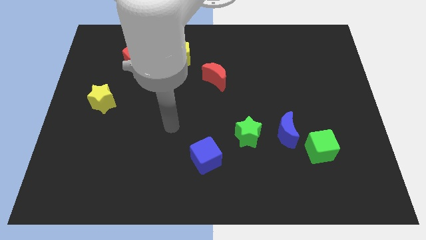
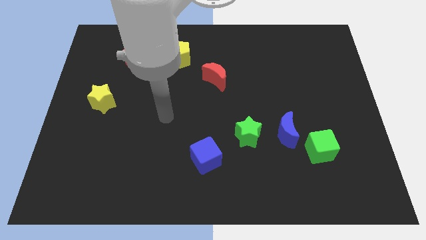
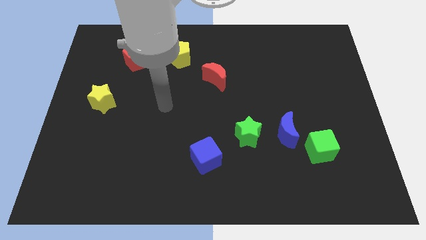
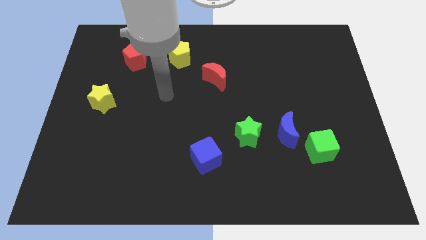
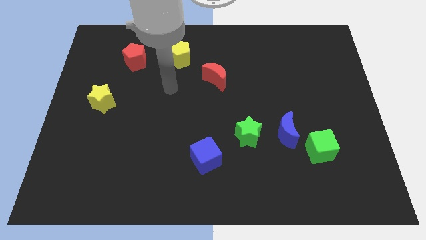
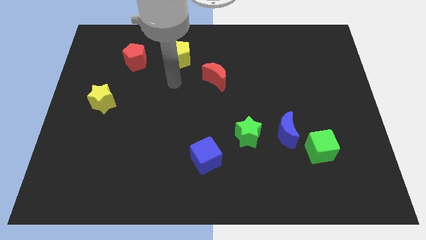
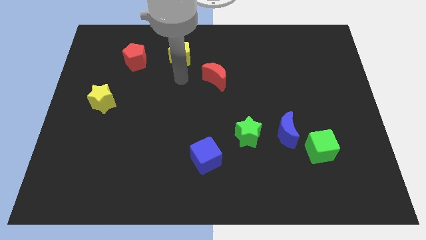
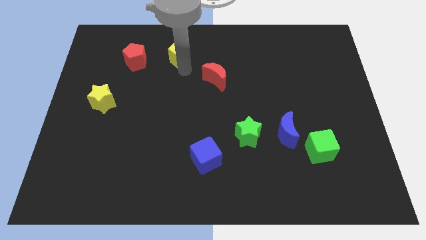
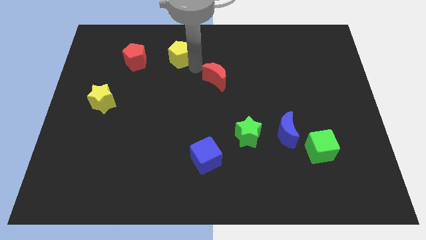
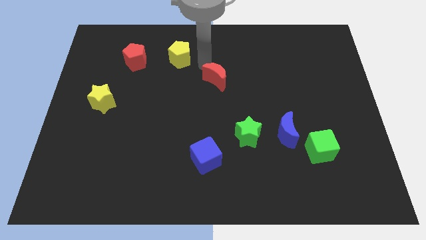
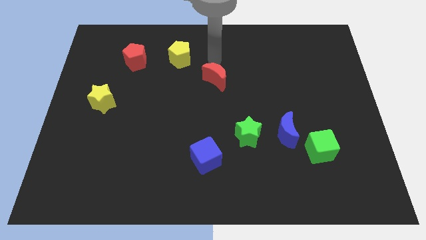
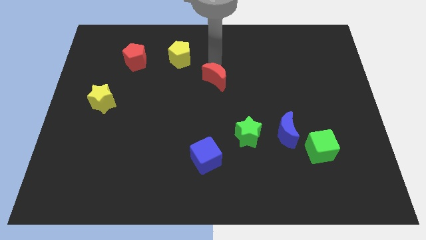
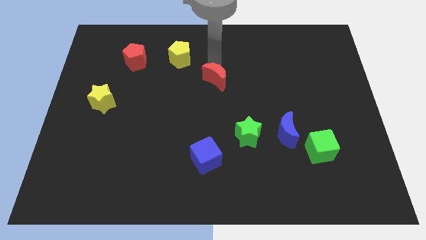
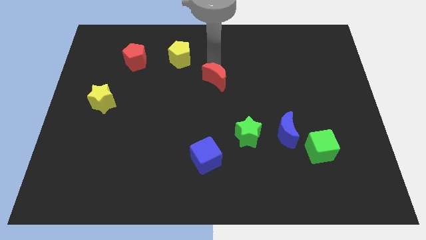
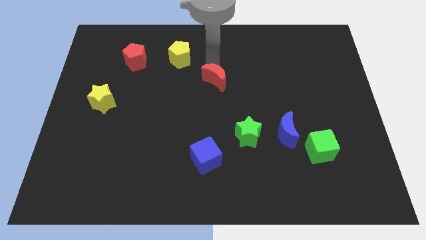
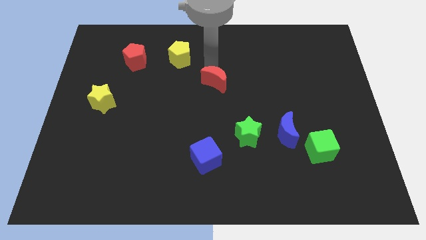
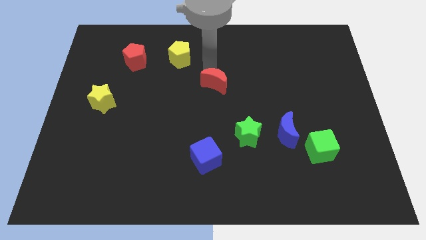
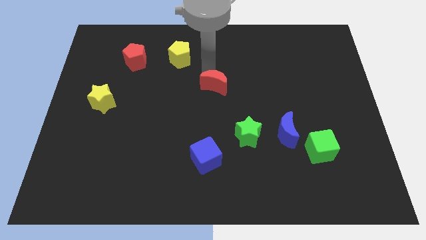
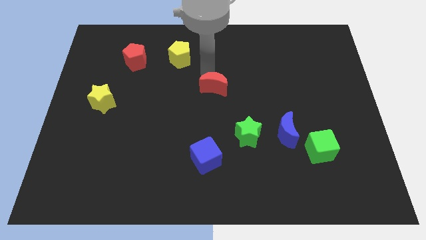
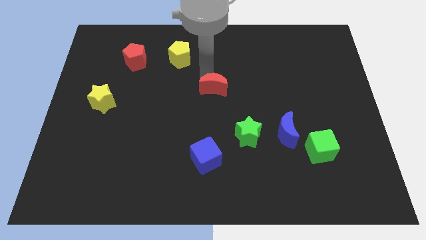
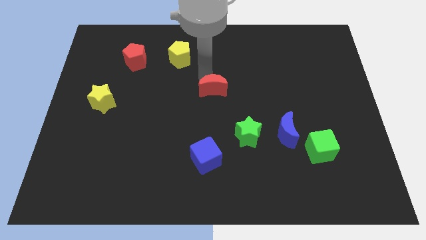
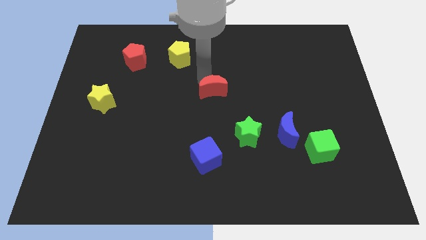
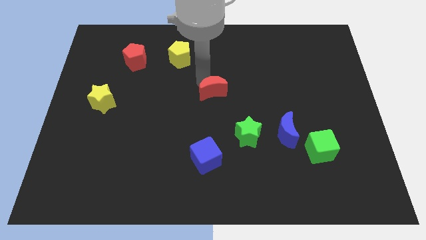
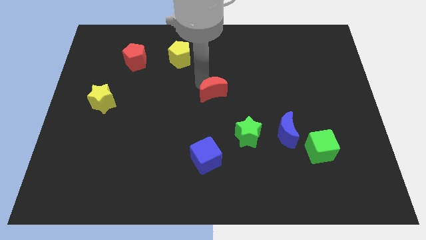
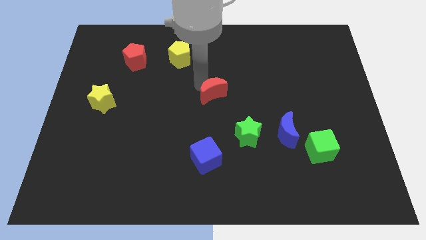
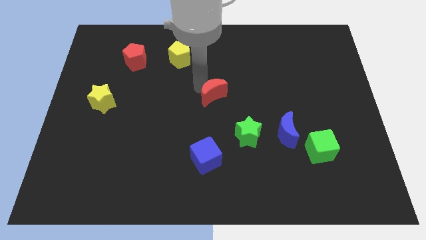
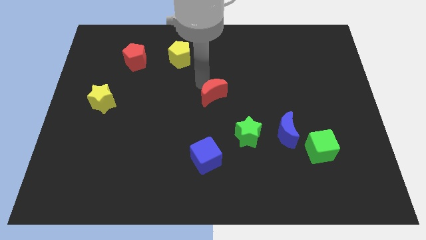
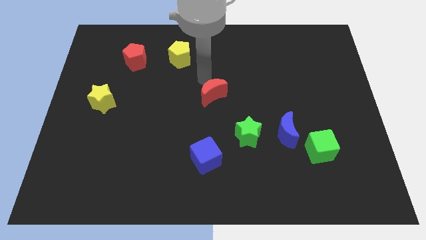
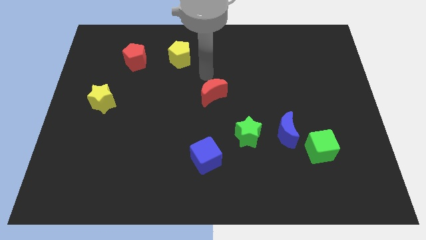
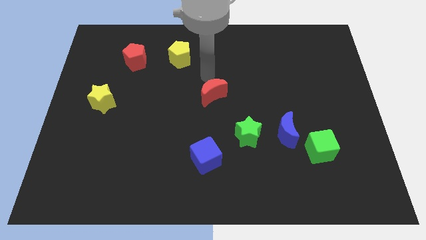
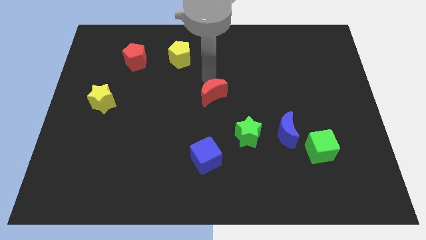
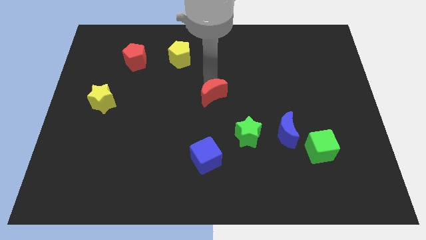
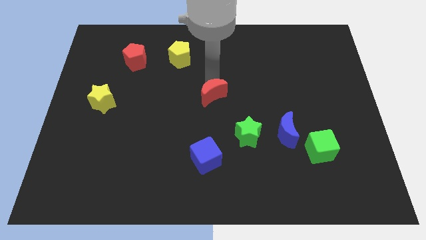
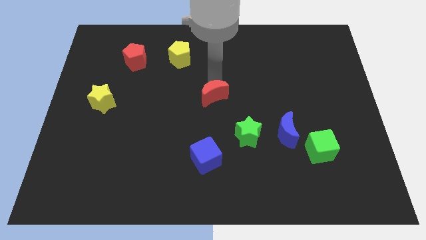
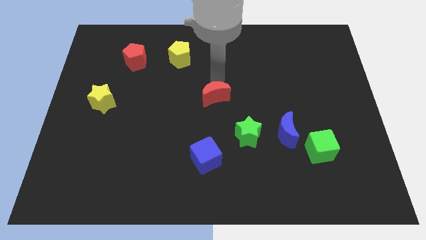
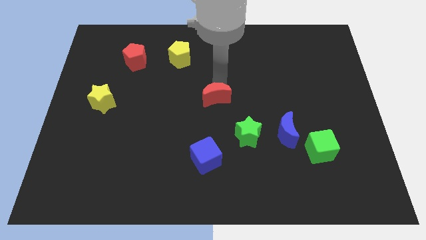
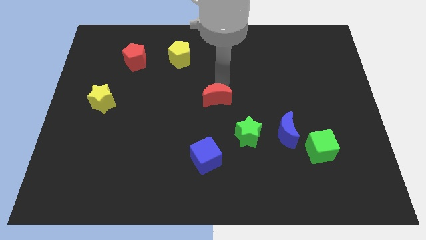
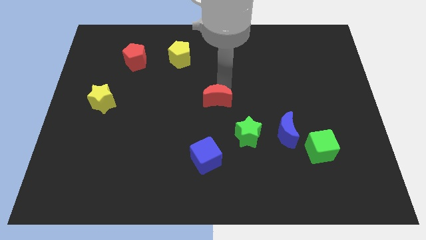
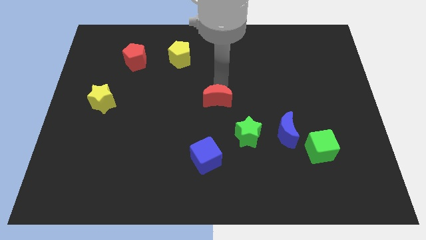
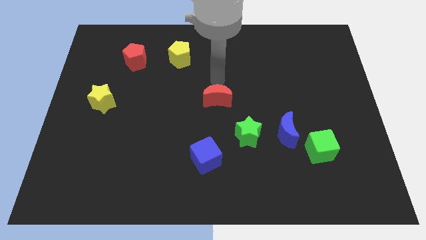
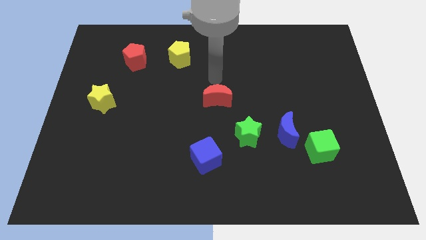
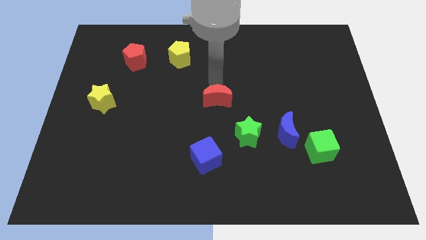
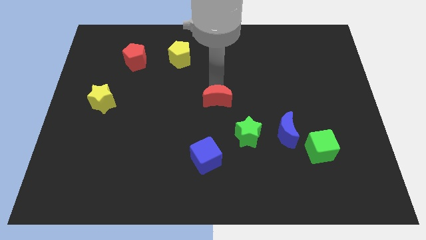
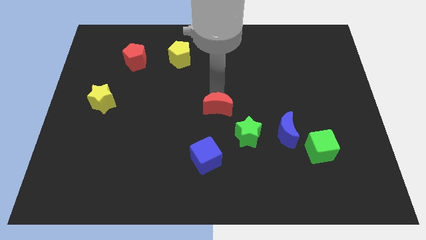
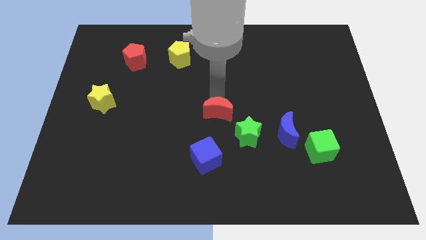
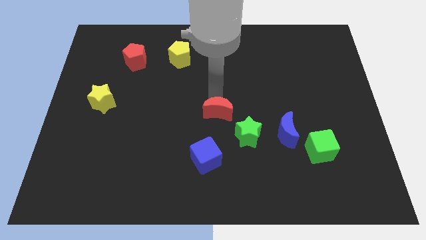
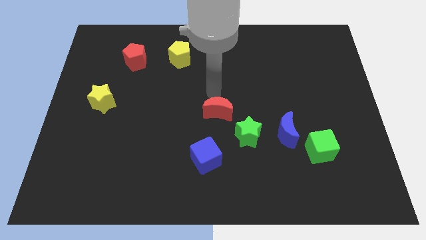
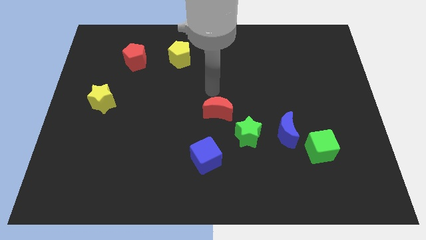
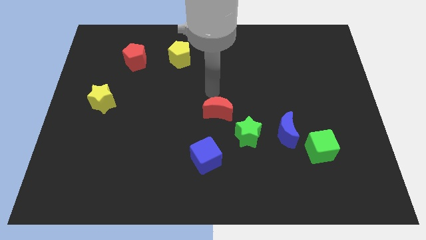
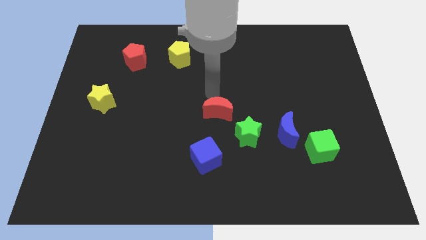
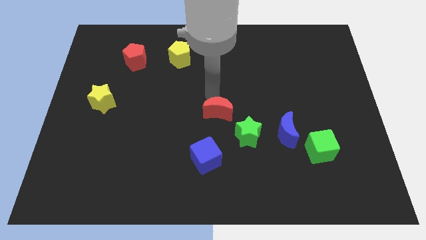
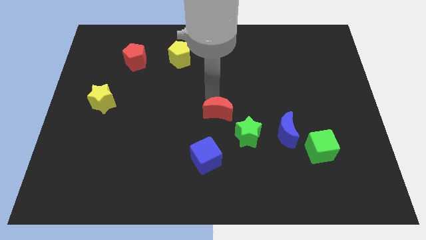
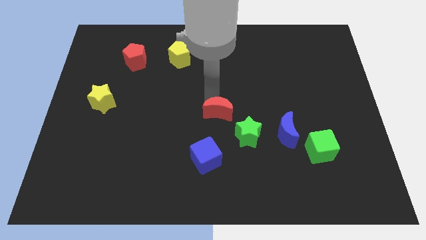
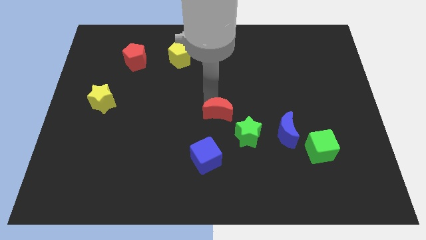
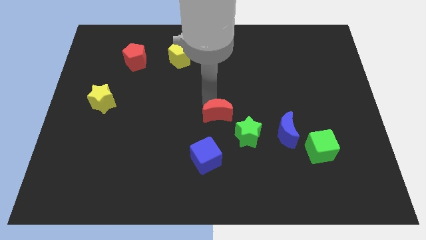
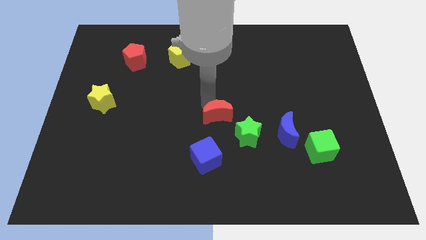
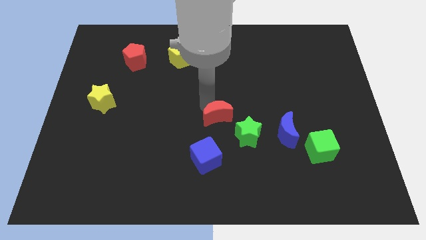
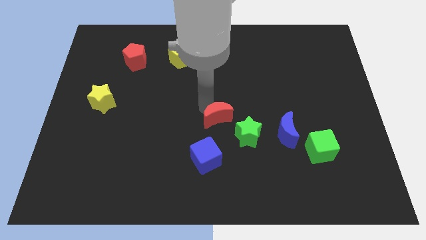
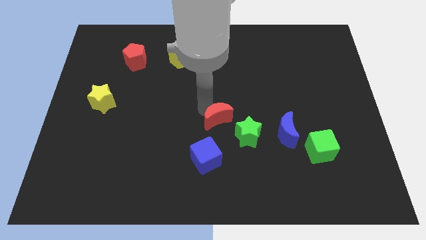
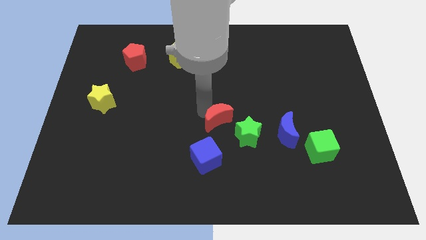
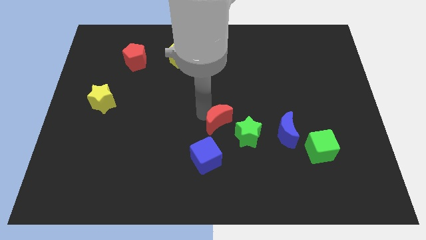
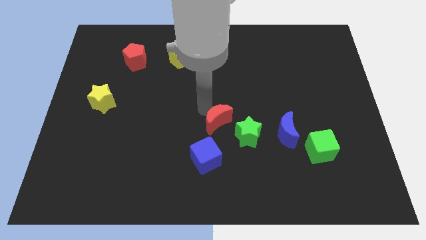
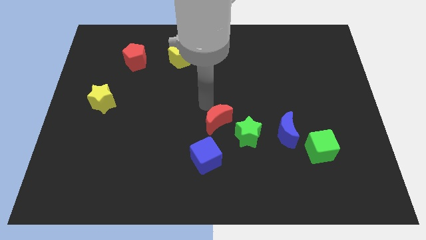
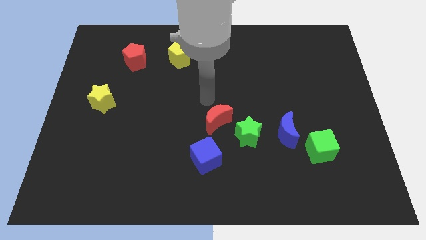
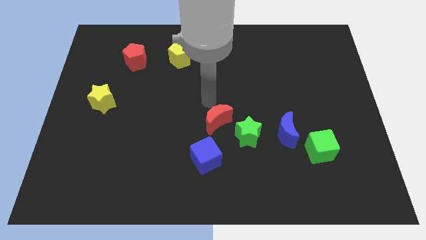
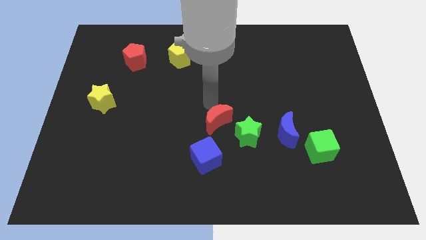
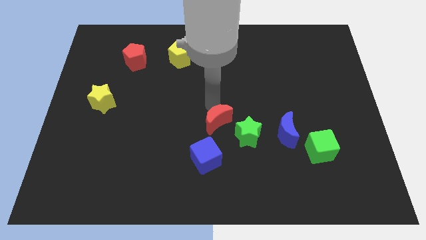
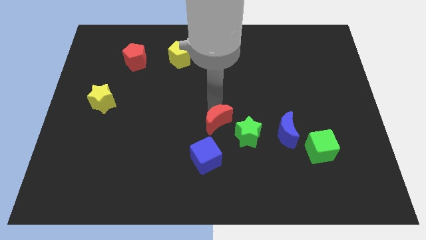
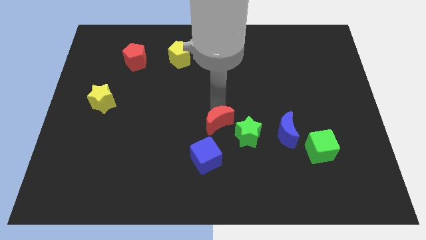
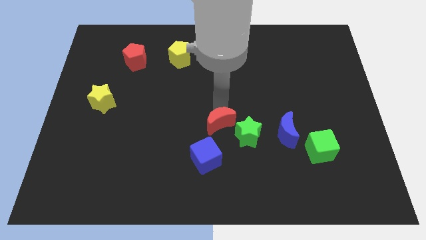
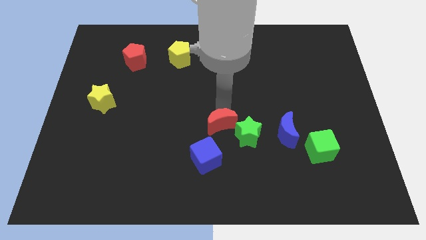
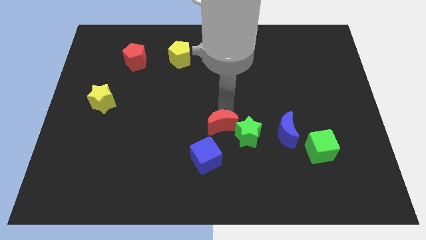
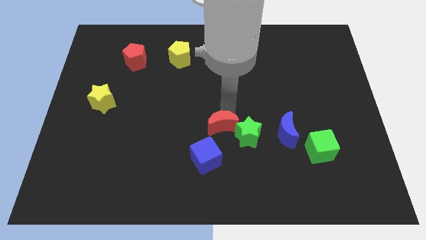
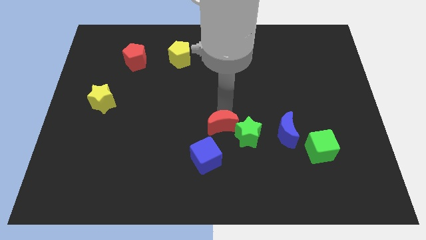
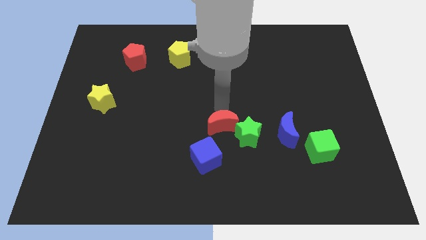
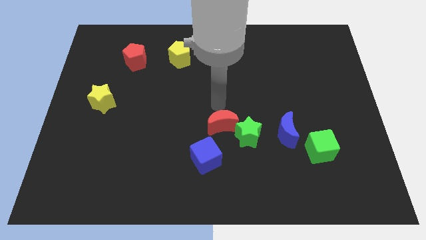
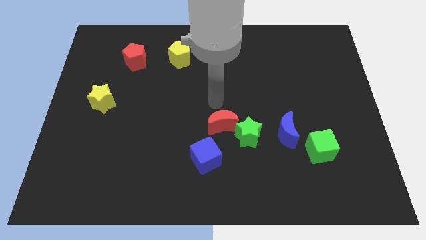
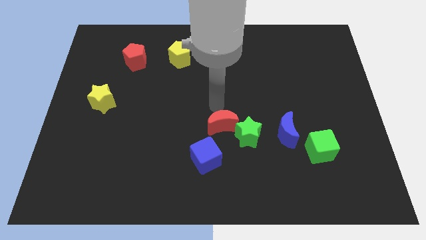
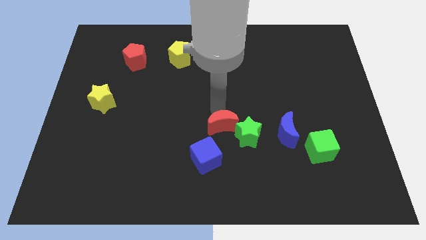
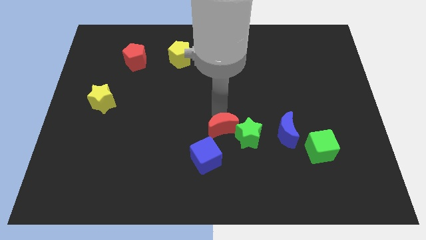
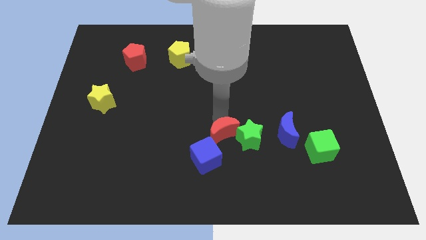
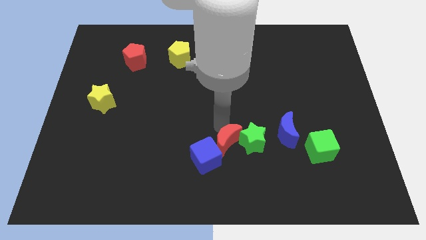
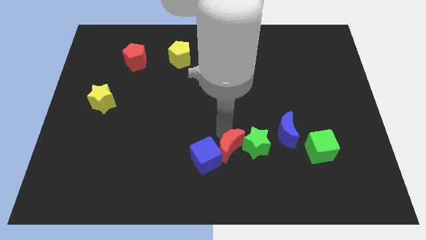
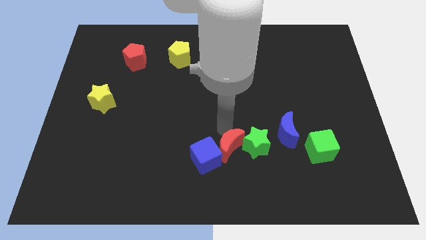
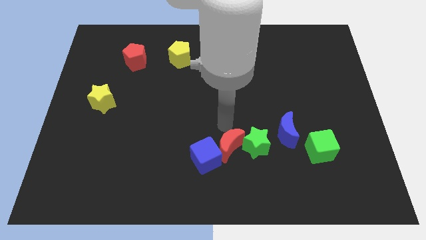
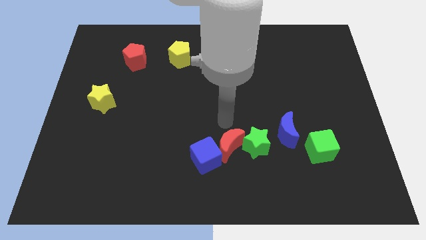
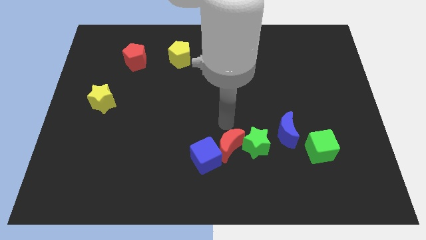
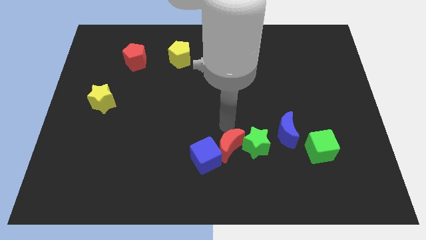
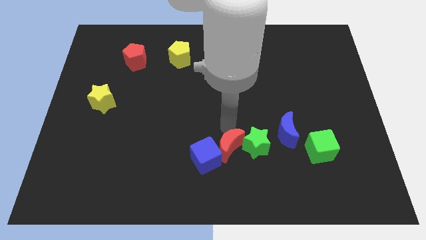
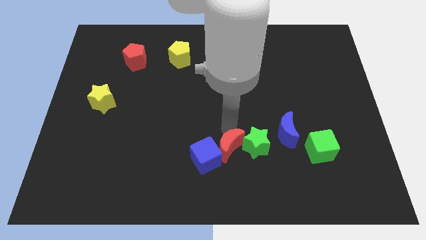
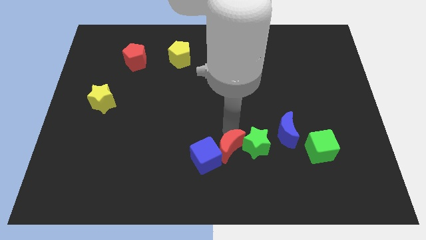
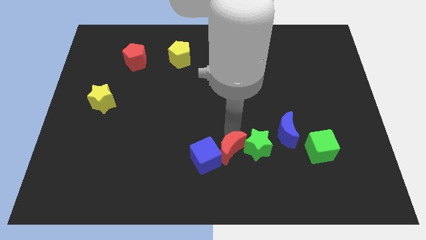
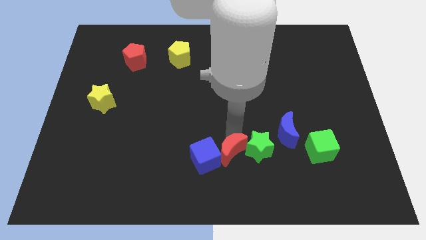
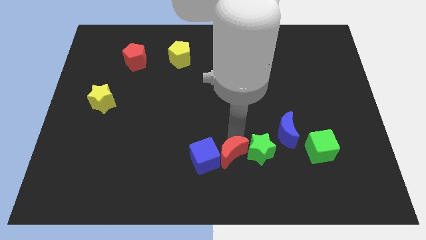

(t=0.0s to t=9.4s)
put the red moon to the bottom right side of the blue cube
